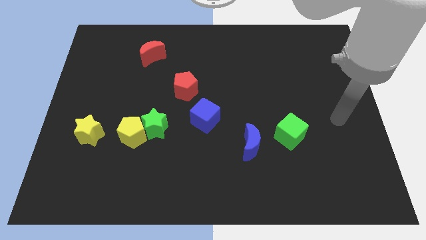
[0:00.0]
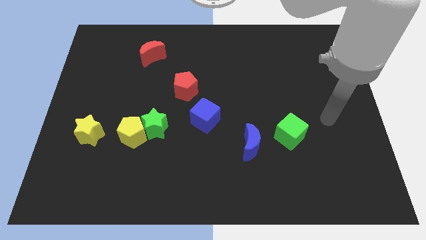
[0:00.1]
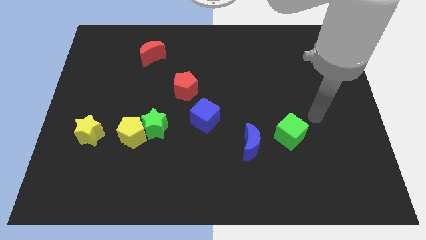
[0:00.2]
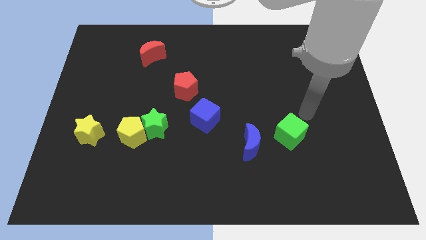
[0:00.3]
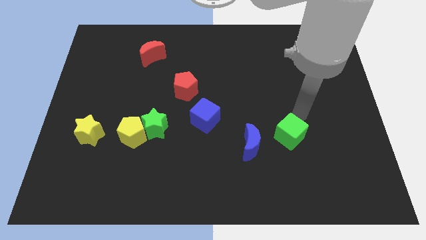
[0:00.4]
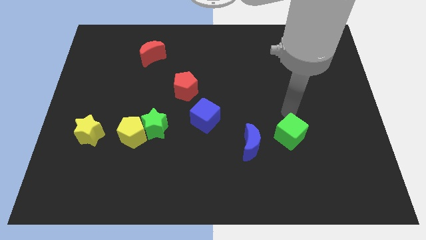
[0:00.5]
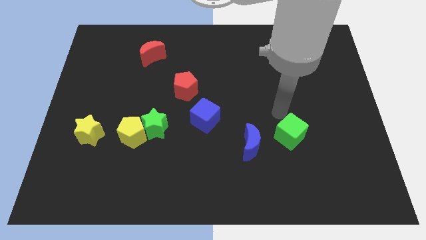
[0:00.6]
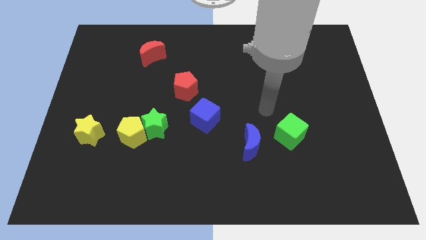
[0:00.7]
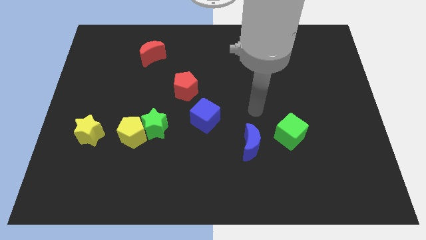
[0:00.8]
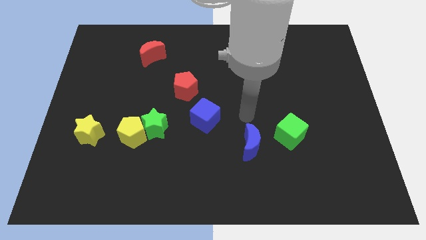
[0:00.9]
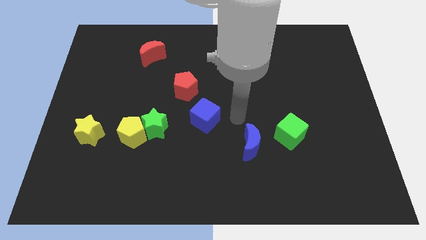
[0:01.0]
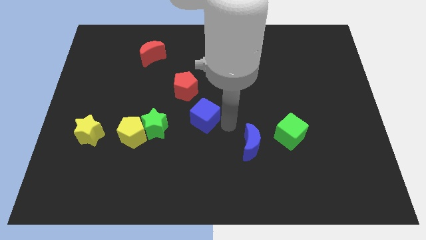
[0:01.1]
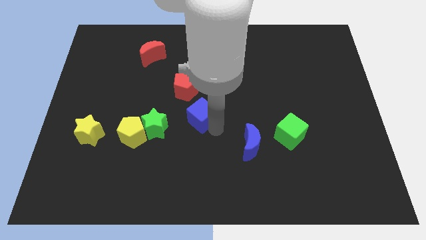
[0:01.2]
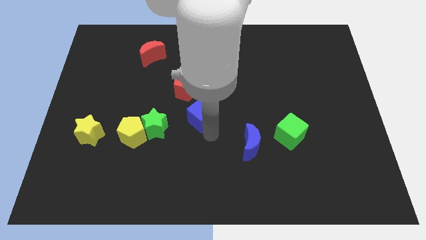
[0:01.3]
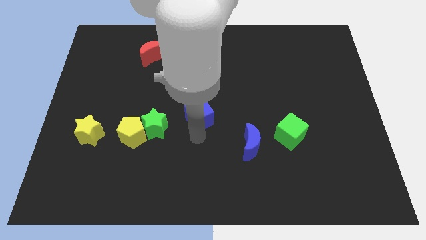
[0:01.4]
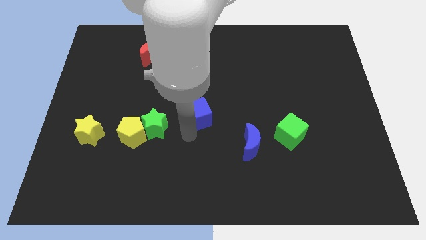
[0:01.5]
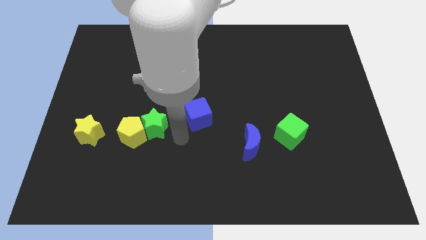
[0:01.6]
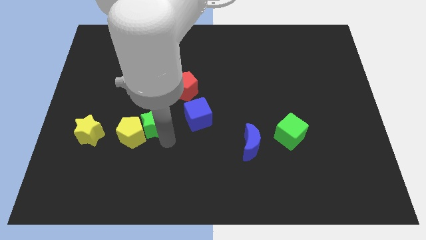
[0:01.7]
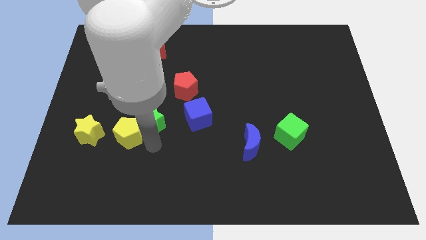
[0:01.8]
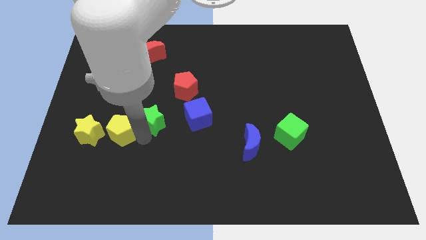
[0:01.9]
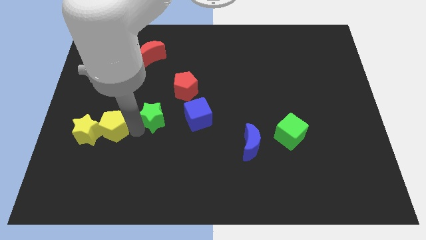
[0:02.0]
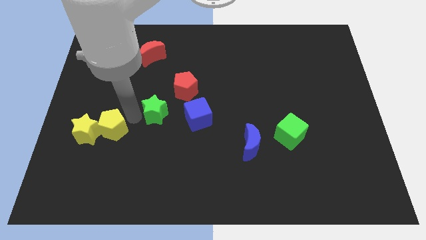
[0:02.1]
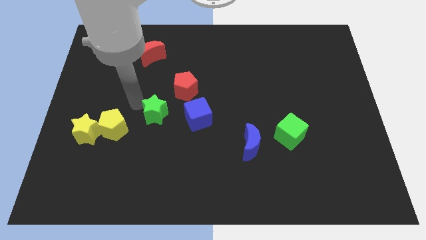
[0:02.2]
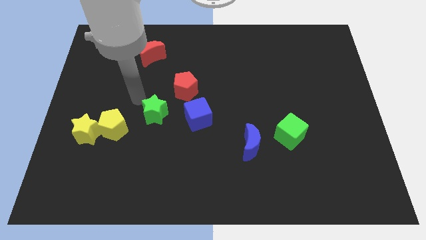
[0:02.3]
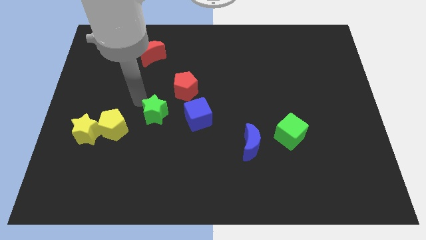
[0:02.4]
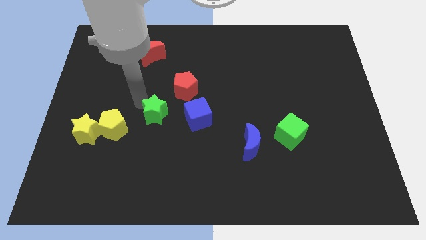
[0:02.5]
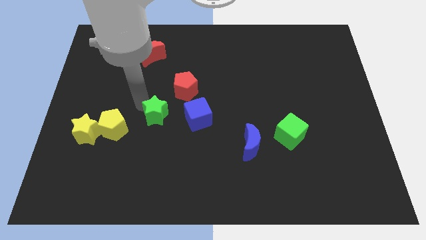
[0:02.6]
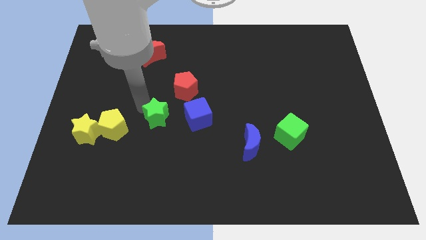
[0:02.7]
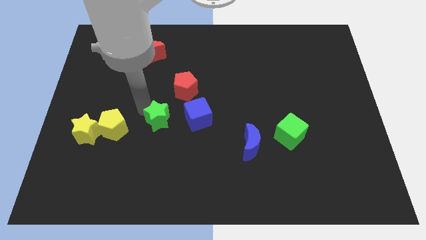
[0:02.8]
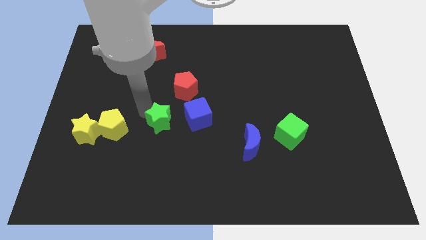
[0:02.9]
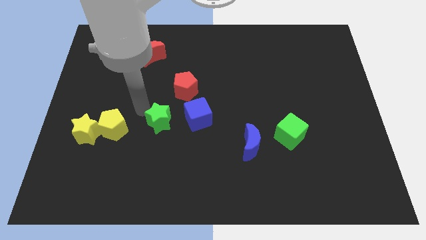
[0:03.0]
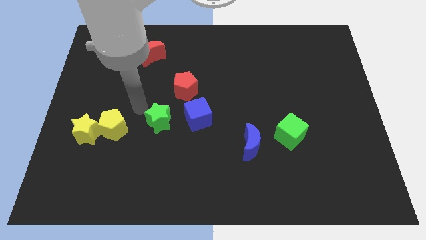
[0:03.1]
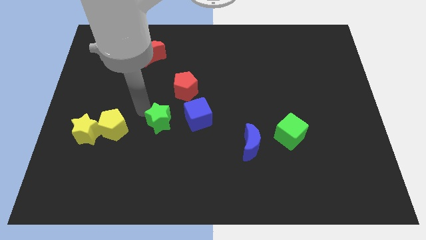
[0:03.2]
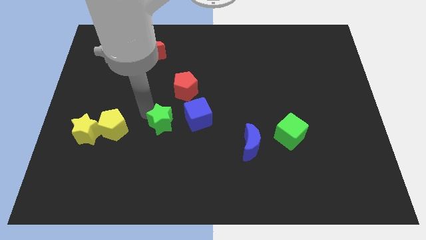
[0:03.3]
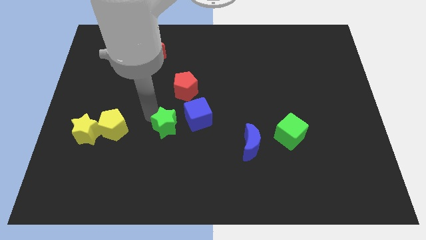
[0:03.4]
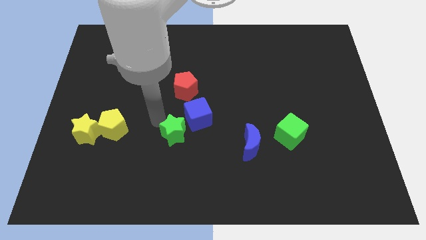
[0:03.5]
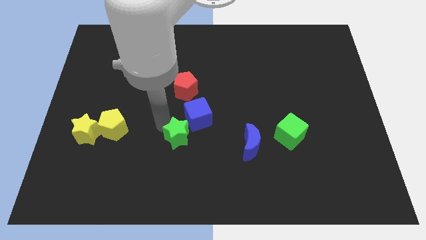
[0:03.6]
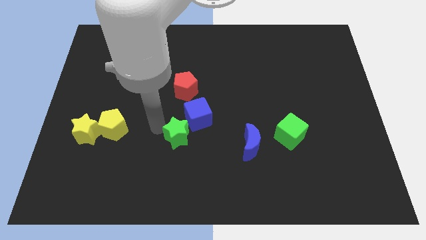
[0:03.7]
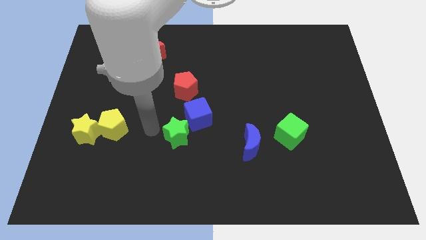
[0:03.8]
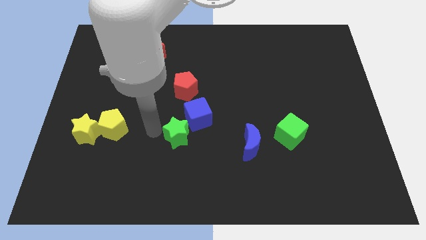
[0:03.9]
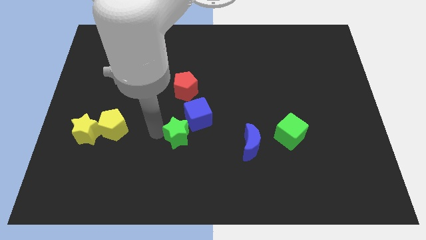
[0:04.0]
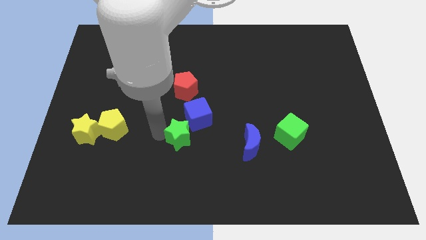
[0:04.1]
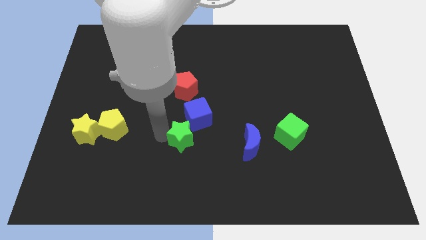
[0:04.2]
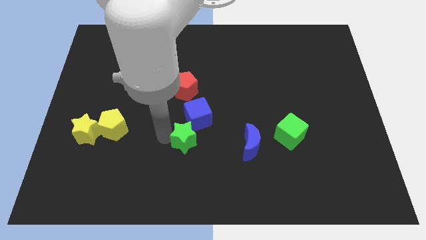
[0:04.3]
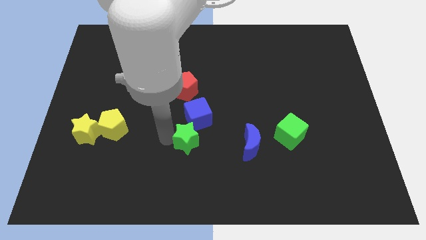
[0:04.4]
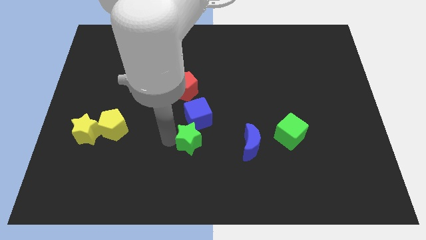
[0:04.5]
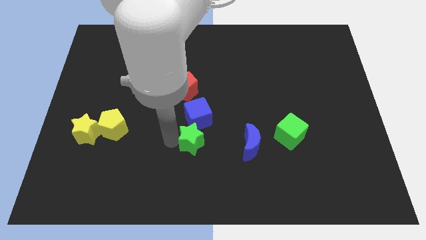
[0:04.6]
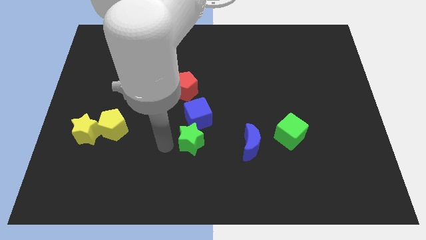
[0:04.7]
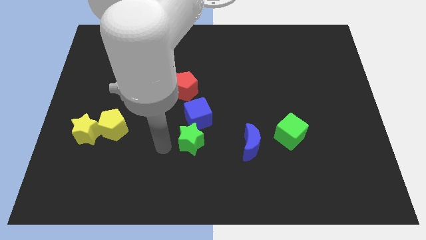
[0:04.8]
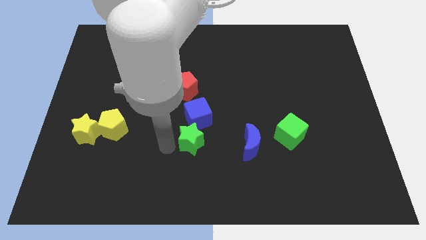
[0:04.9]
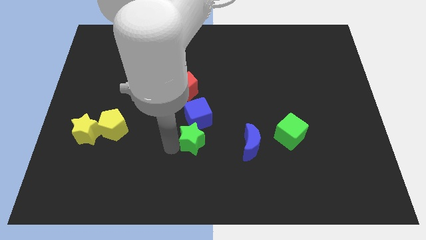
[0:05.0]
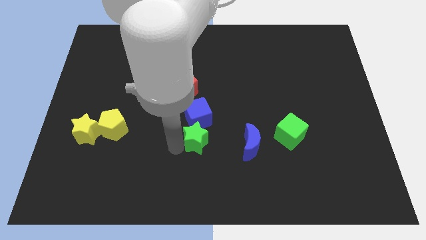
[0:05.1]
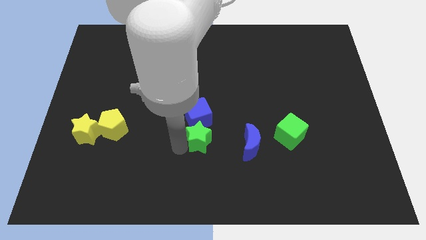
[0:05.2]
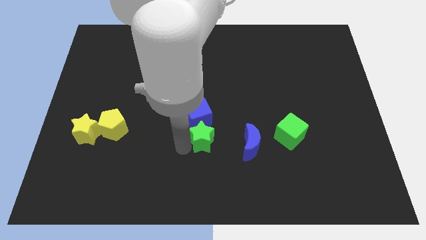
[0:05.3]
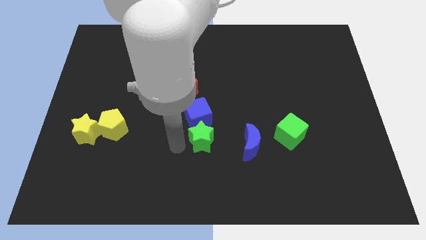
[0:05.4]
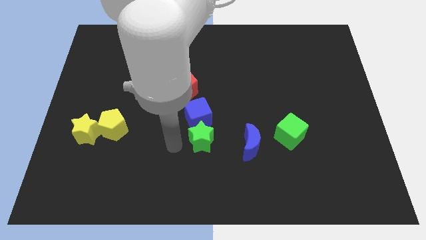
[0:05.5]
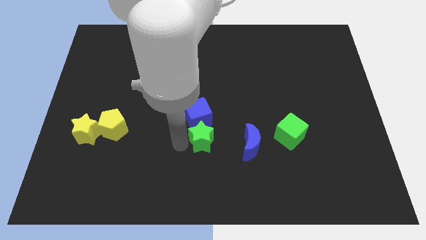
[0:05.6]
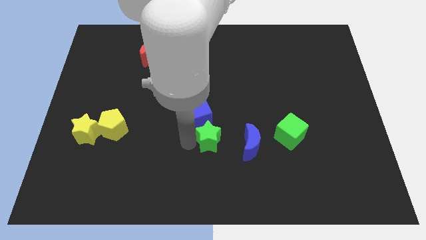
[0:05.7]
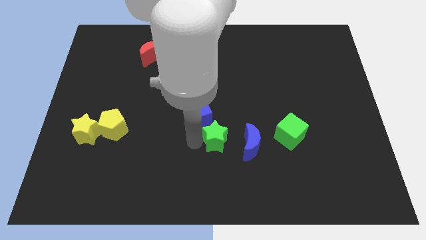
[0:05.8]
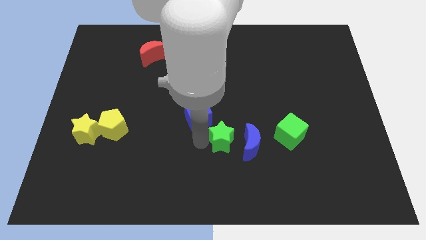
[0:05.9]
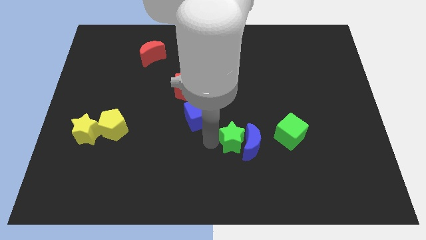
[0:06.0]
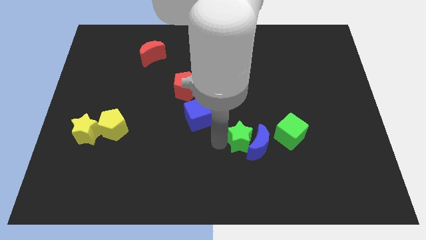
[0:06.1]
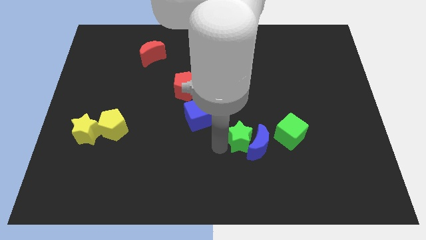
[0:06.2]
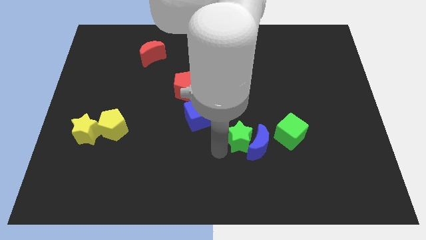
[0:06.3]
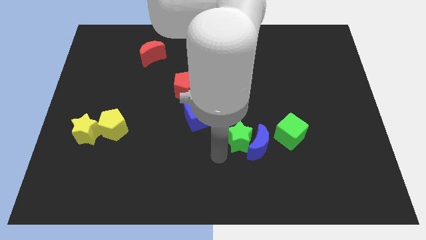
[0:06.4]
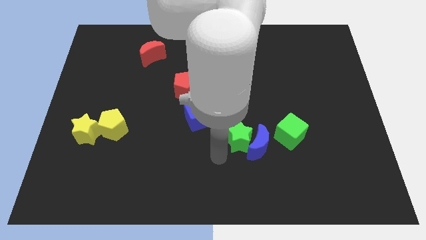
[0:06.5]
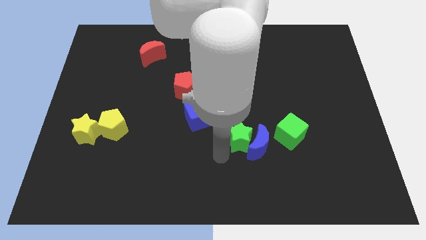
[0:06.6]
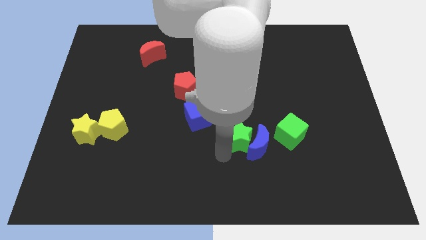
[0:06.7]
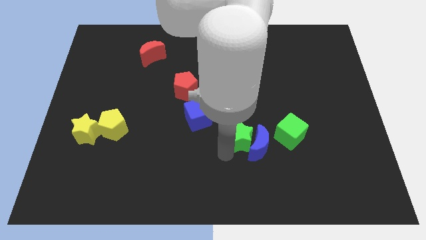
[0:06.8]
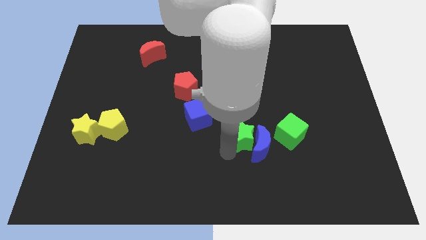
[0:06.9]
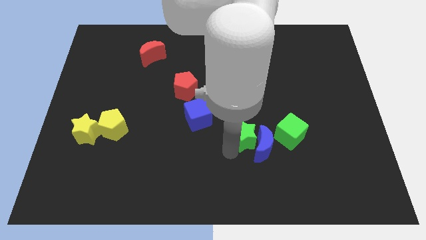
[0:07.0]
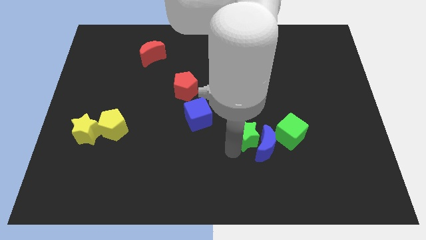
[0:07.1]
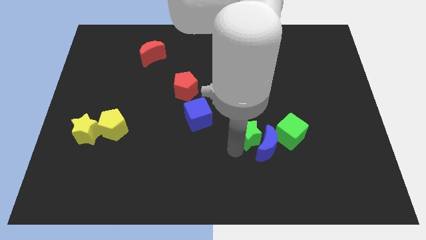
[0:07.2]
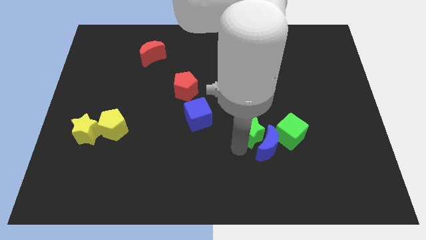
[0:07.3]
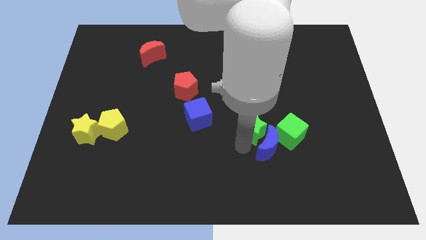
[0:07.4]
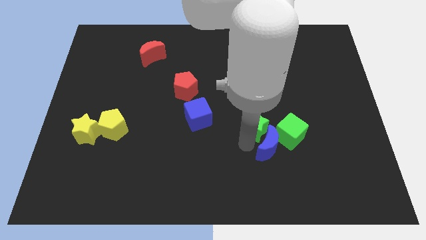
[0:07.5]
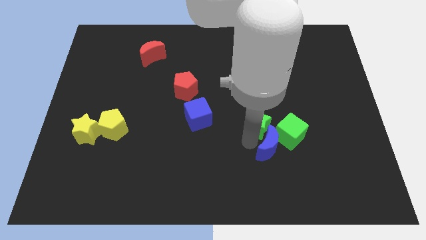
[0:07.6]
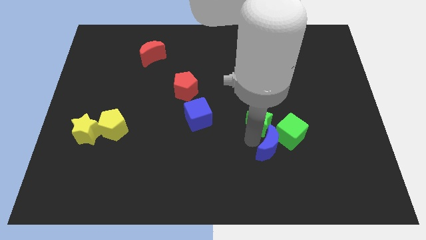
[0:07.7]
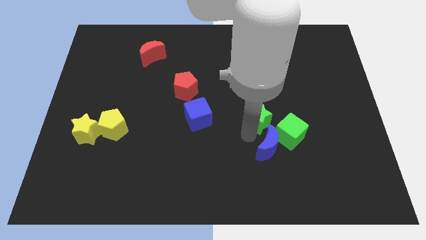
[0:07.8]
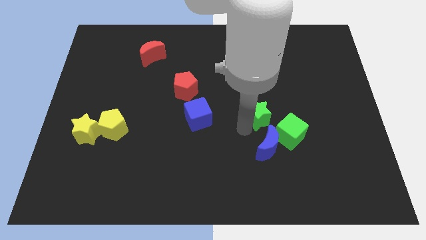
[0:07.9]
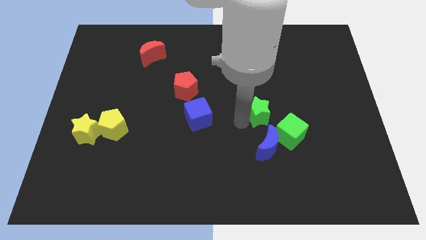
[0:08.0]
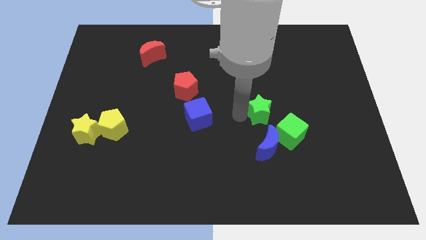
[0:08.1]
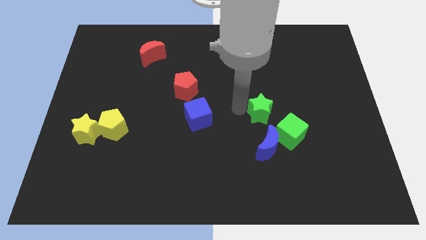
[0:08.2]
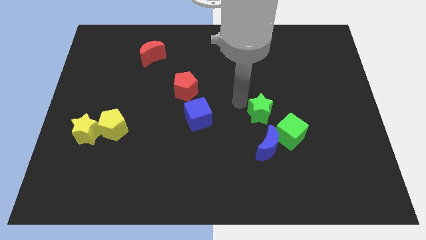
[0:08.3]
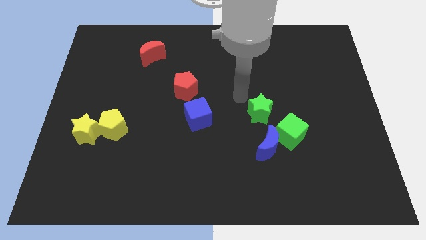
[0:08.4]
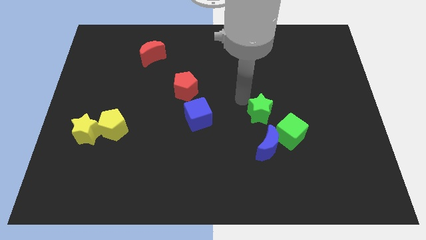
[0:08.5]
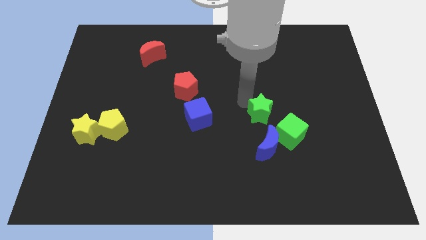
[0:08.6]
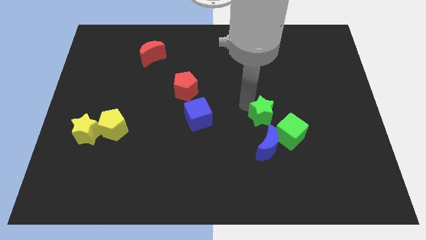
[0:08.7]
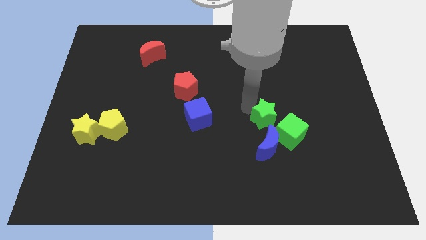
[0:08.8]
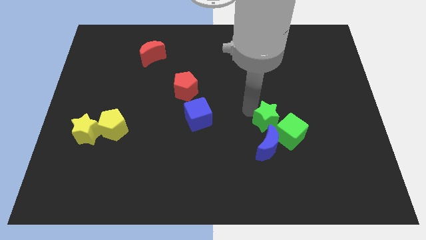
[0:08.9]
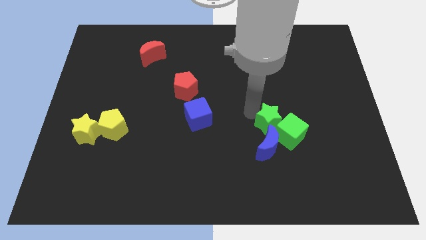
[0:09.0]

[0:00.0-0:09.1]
move the green star to the green cube
